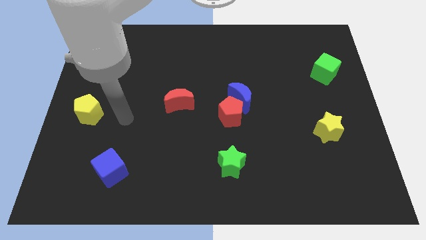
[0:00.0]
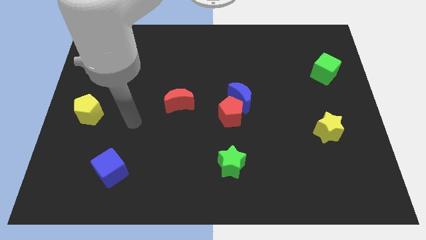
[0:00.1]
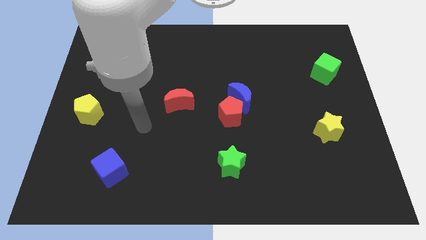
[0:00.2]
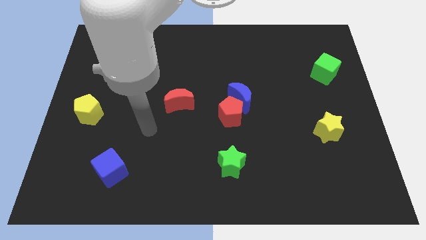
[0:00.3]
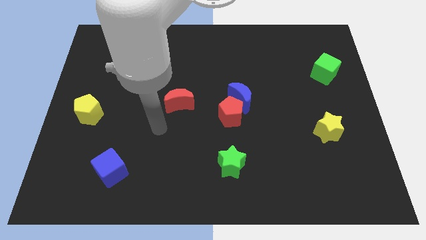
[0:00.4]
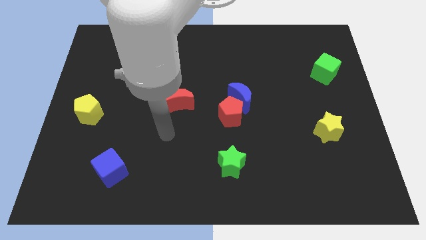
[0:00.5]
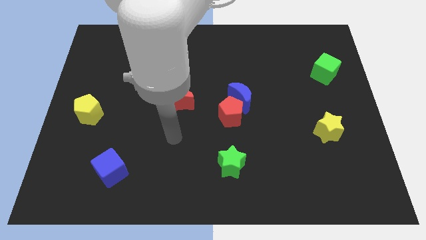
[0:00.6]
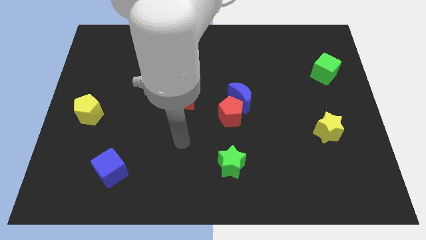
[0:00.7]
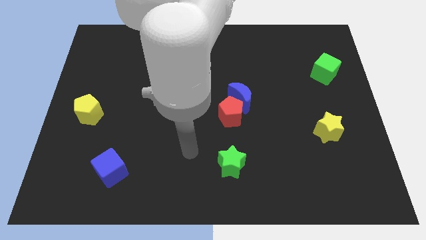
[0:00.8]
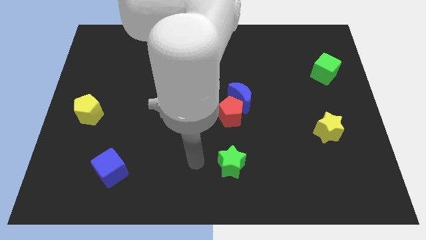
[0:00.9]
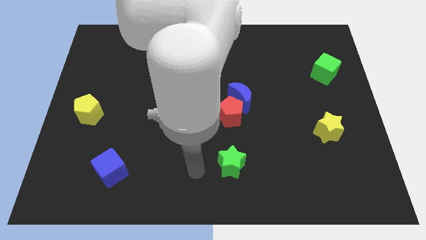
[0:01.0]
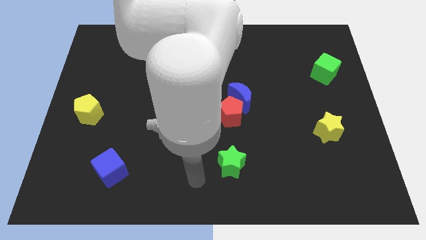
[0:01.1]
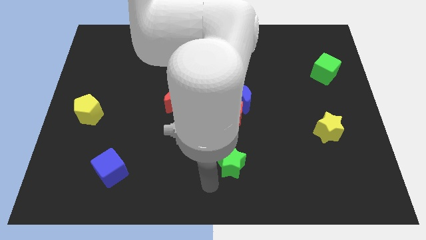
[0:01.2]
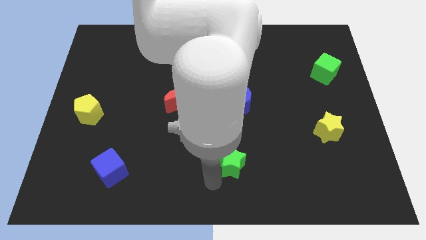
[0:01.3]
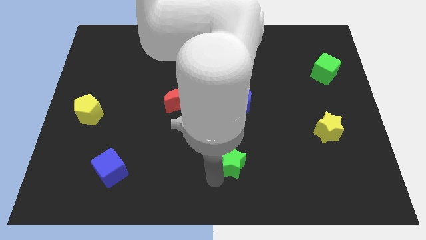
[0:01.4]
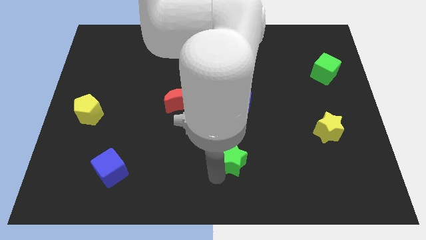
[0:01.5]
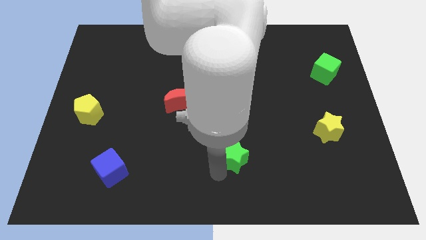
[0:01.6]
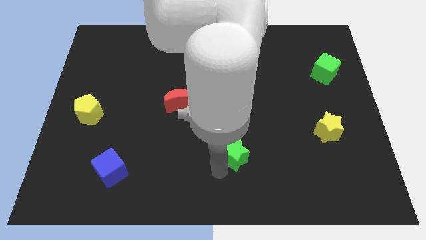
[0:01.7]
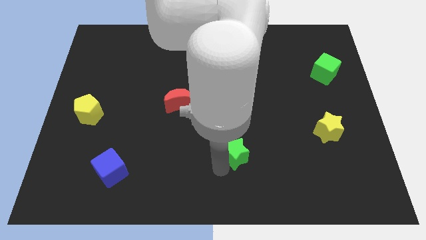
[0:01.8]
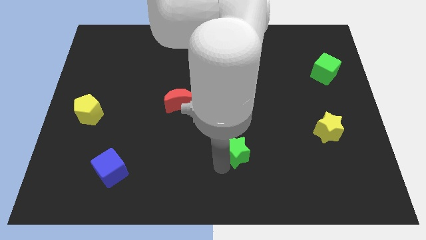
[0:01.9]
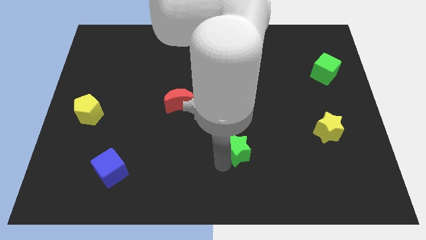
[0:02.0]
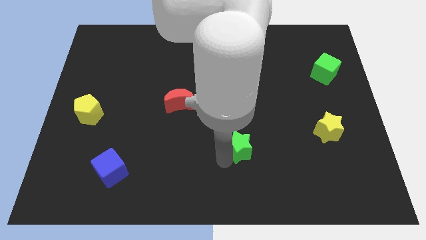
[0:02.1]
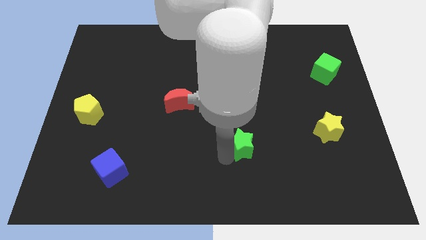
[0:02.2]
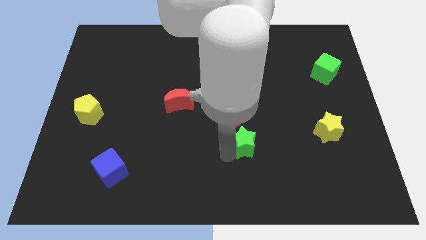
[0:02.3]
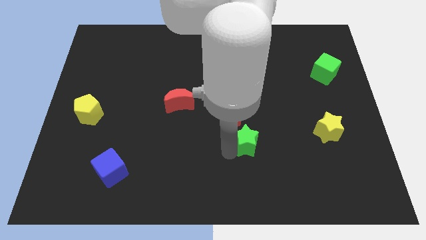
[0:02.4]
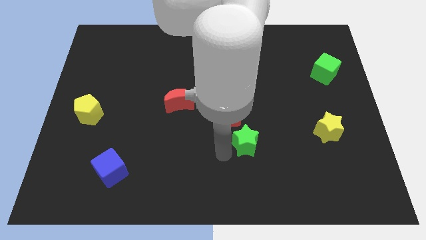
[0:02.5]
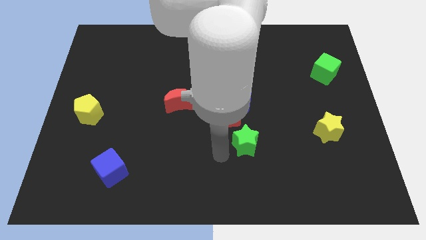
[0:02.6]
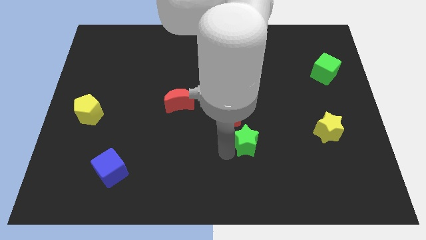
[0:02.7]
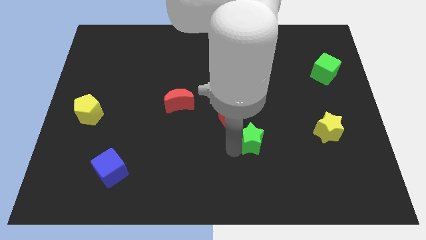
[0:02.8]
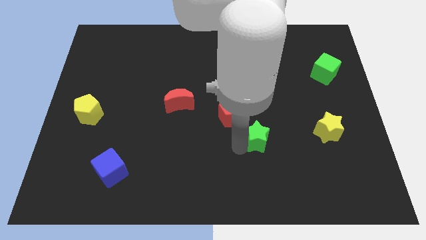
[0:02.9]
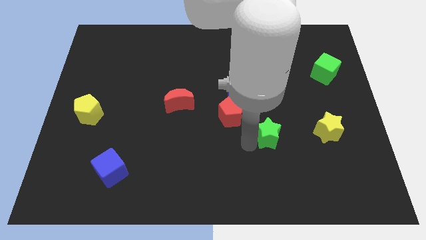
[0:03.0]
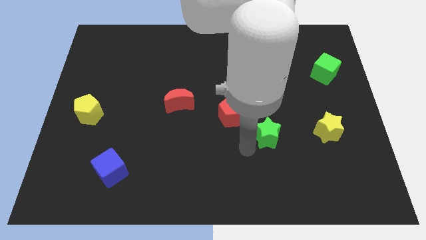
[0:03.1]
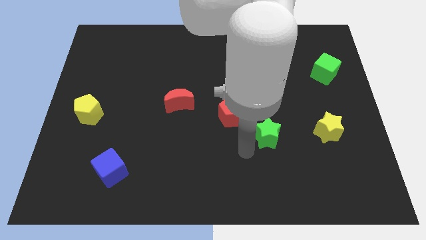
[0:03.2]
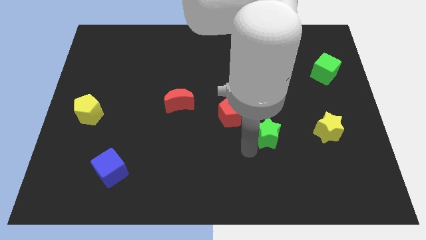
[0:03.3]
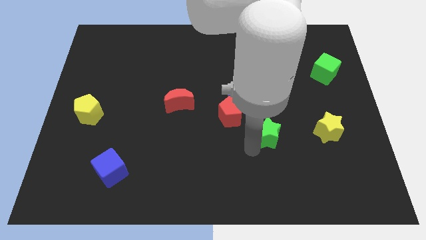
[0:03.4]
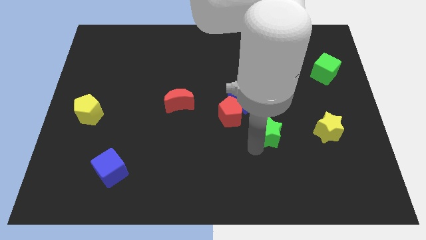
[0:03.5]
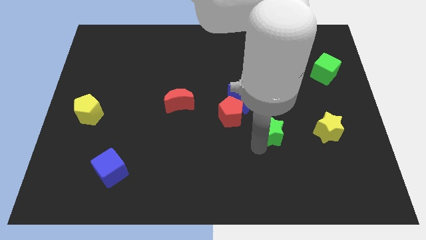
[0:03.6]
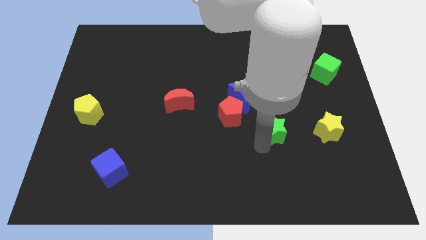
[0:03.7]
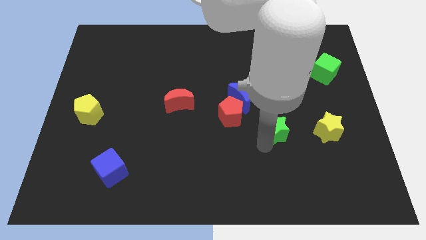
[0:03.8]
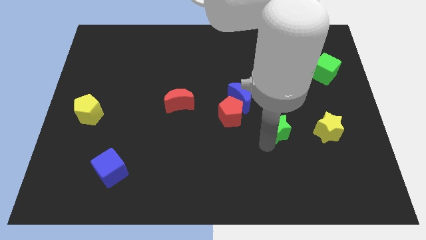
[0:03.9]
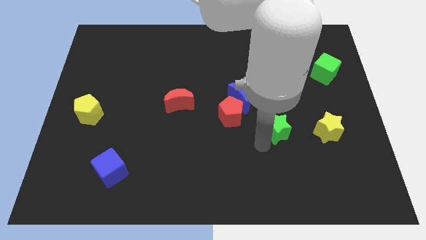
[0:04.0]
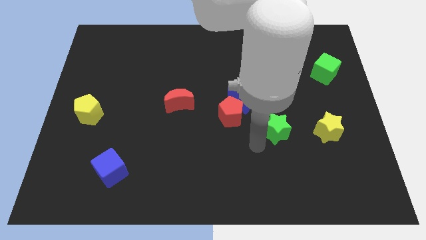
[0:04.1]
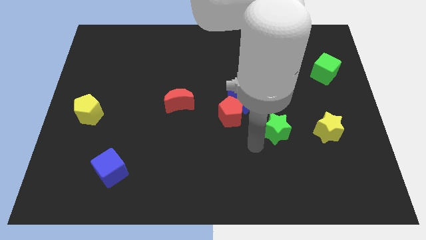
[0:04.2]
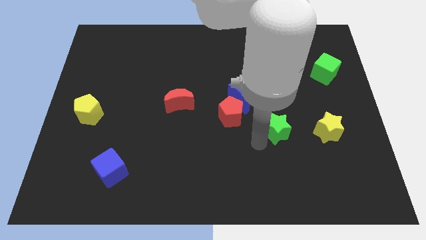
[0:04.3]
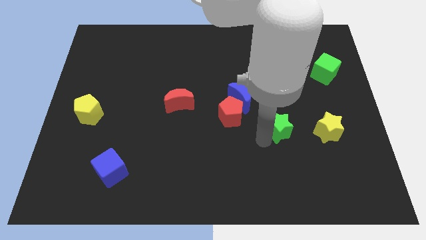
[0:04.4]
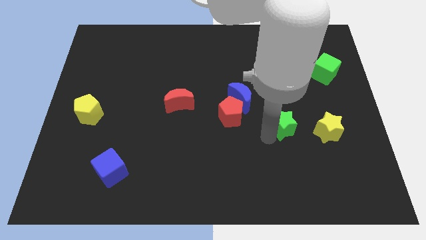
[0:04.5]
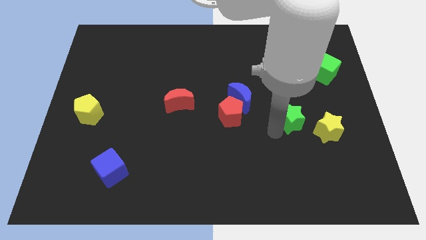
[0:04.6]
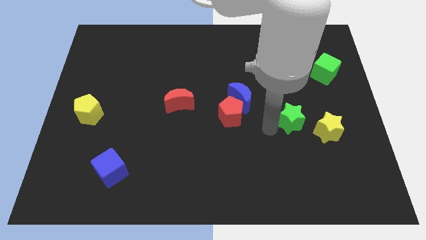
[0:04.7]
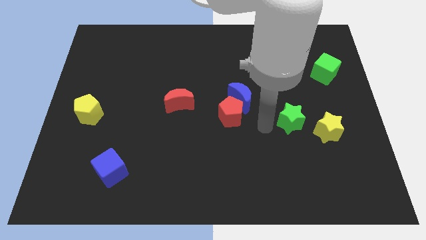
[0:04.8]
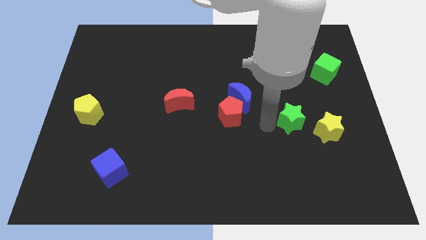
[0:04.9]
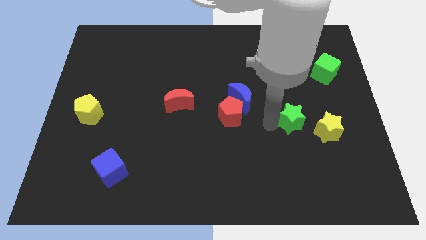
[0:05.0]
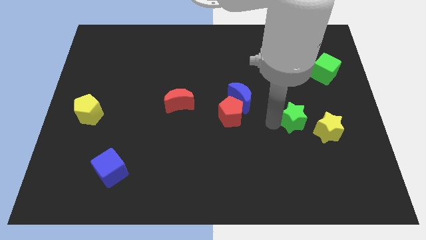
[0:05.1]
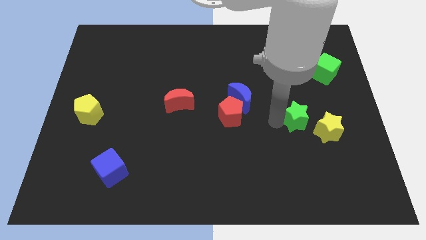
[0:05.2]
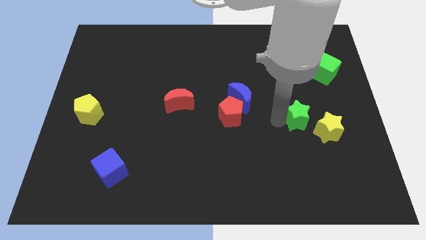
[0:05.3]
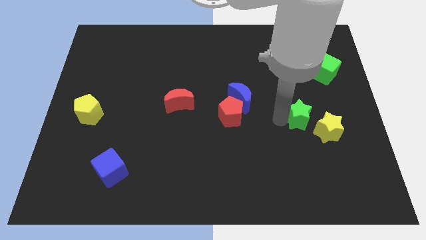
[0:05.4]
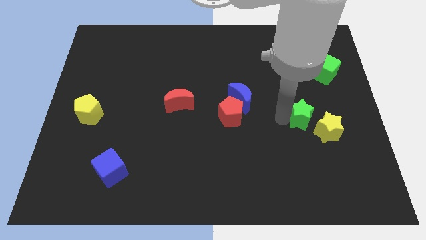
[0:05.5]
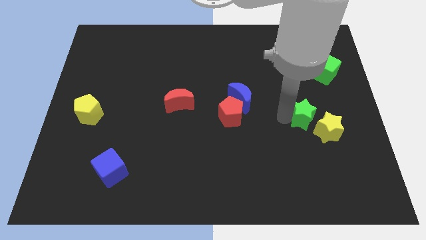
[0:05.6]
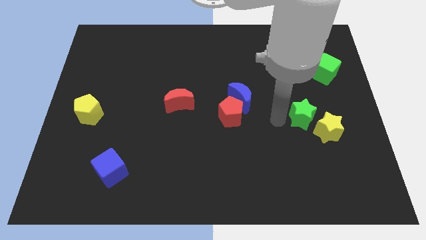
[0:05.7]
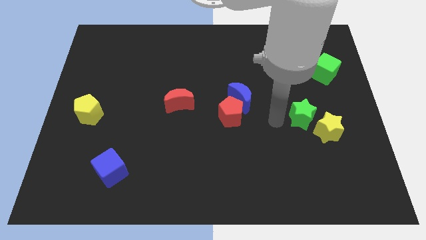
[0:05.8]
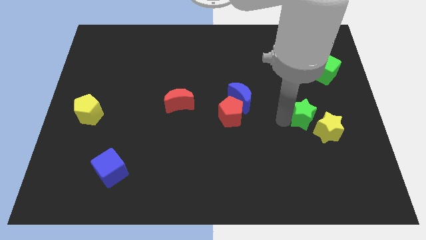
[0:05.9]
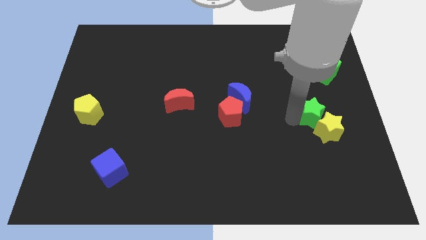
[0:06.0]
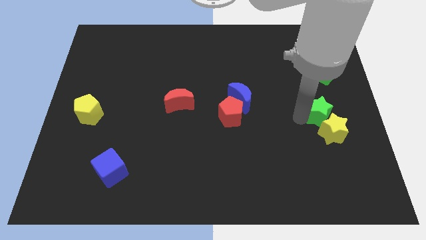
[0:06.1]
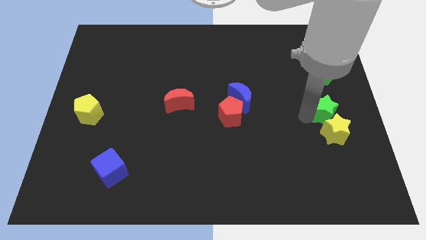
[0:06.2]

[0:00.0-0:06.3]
push the green star to the right side

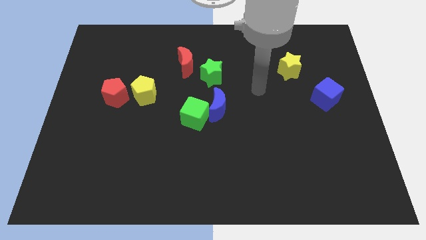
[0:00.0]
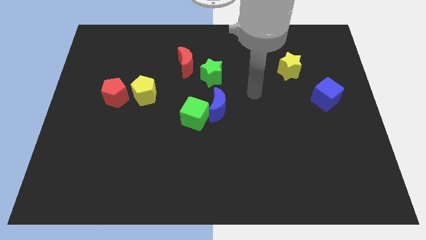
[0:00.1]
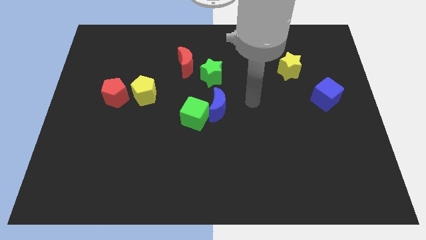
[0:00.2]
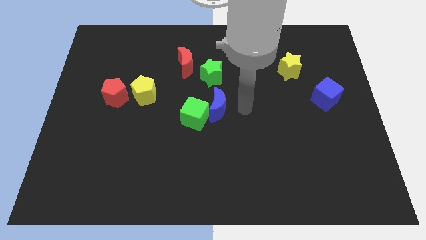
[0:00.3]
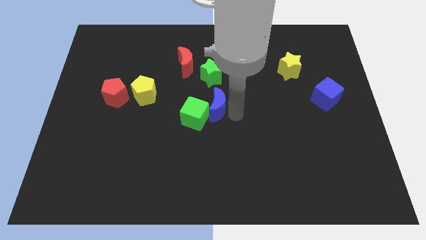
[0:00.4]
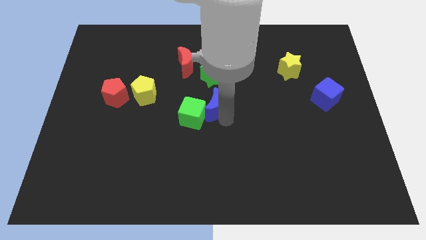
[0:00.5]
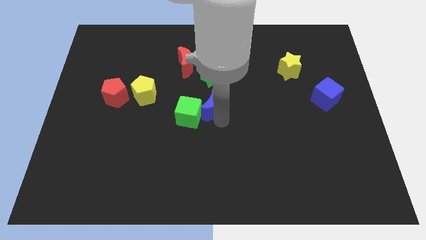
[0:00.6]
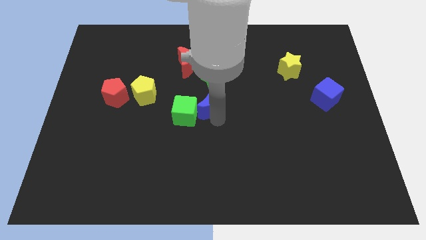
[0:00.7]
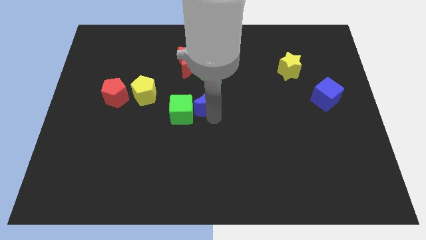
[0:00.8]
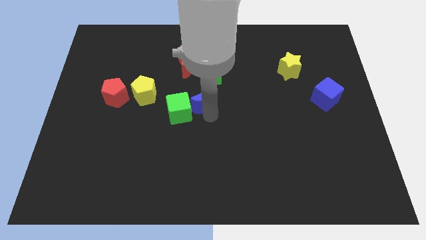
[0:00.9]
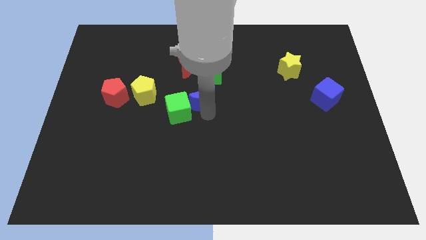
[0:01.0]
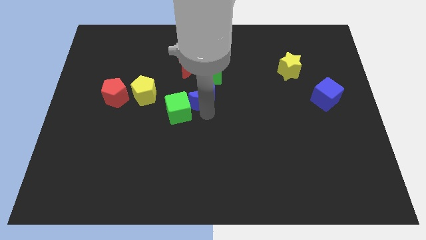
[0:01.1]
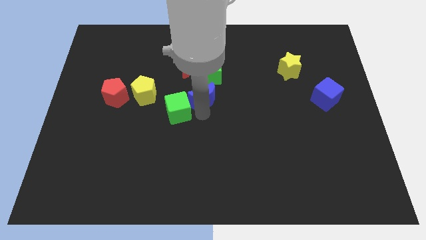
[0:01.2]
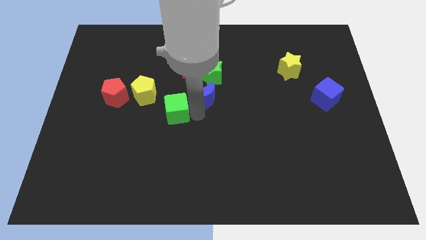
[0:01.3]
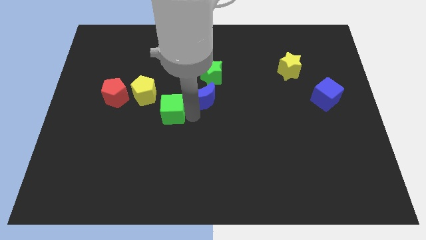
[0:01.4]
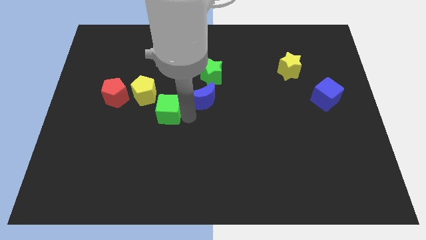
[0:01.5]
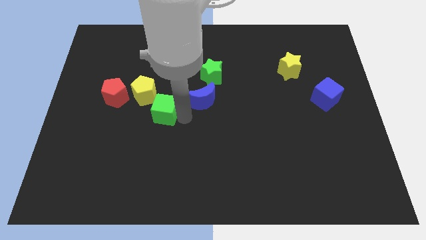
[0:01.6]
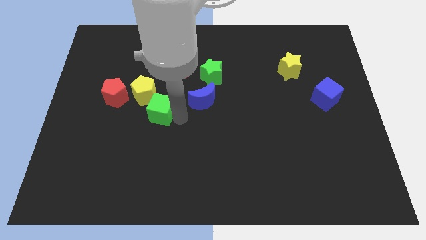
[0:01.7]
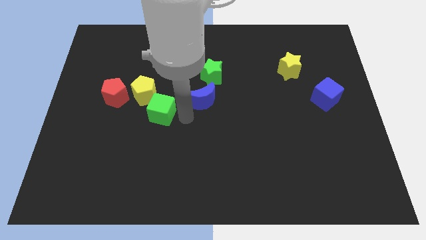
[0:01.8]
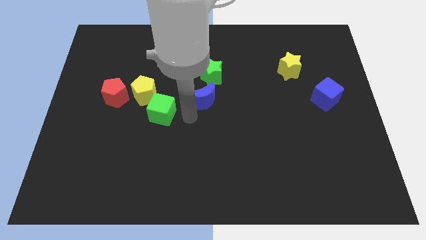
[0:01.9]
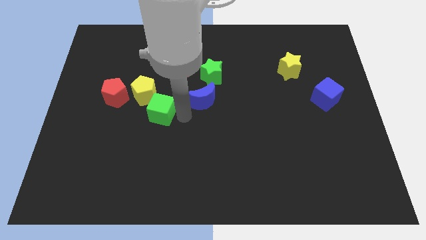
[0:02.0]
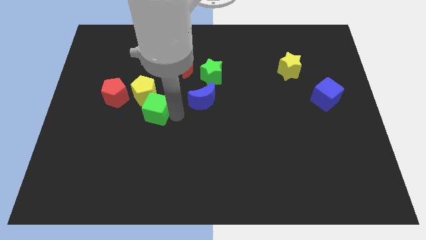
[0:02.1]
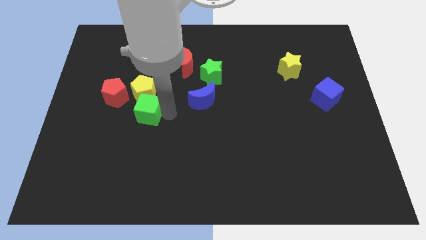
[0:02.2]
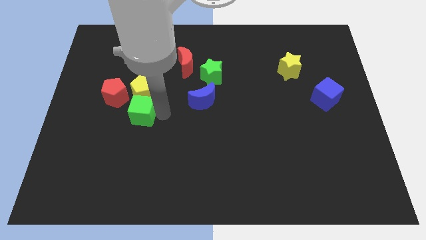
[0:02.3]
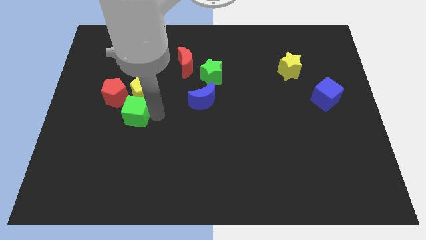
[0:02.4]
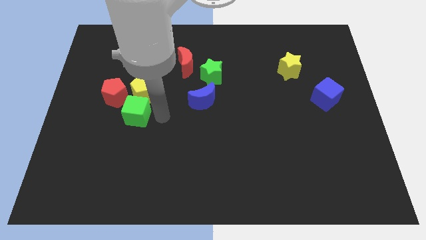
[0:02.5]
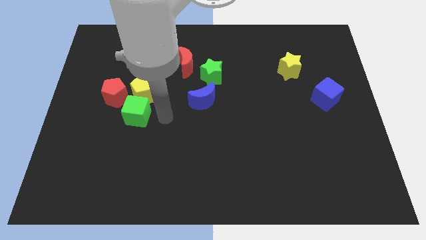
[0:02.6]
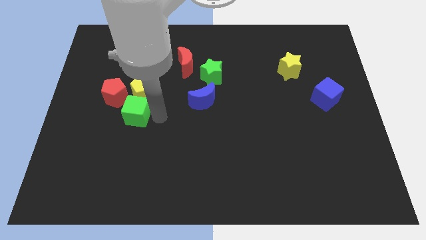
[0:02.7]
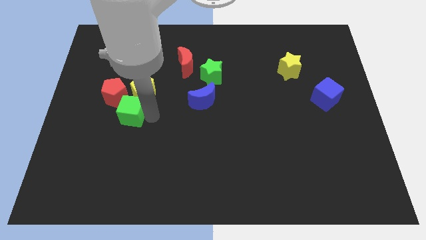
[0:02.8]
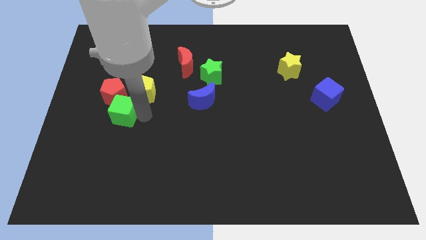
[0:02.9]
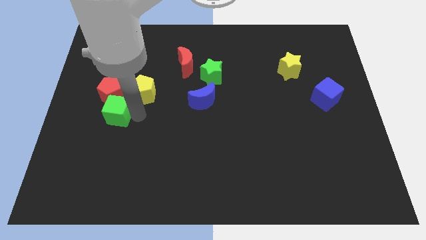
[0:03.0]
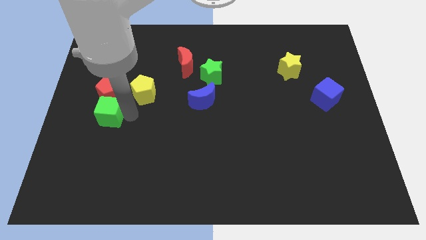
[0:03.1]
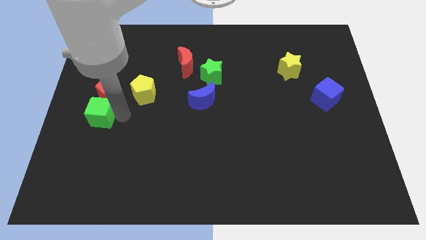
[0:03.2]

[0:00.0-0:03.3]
push the green cube to the left side
